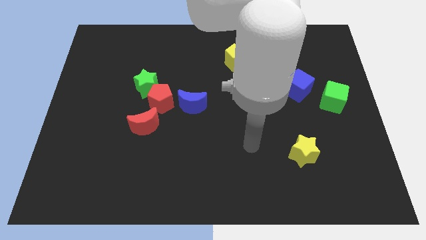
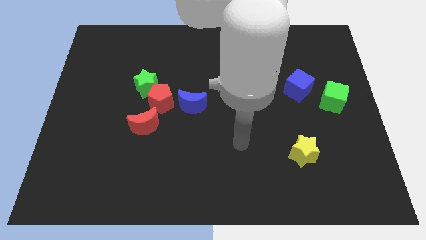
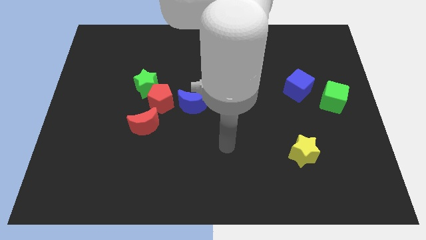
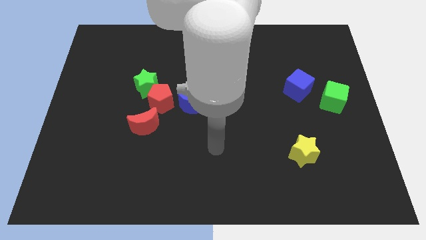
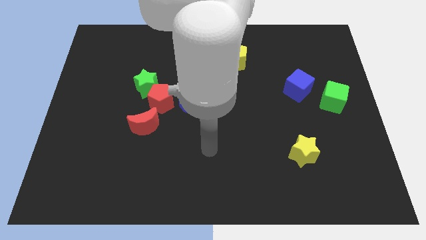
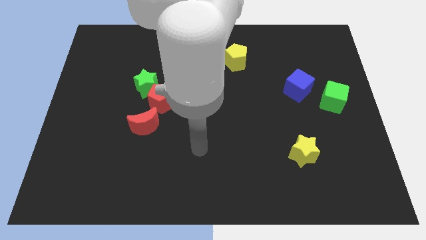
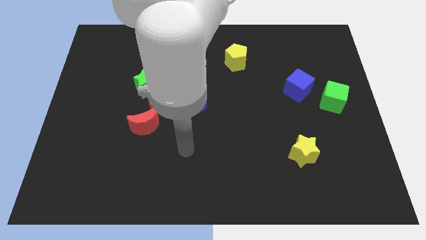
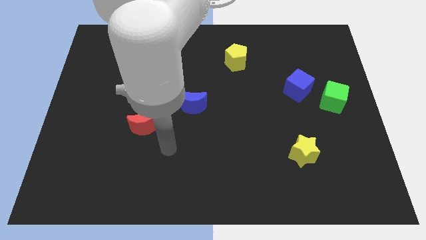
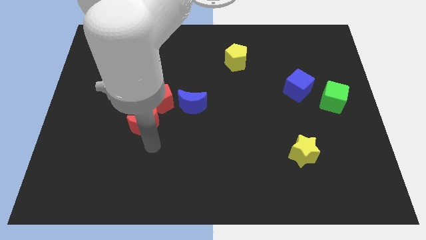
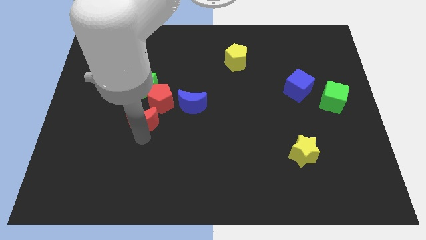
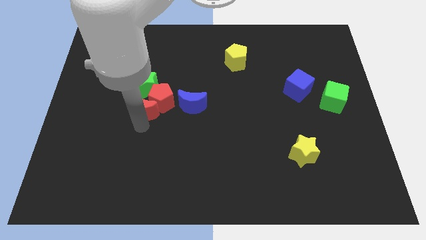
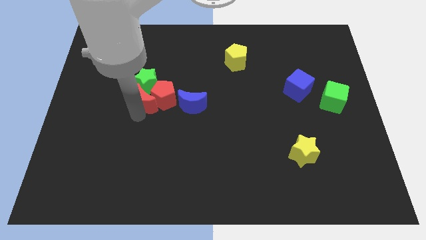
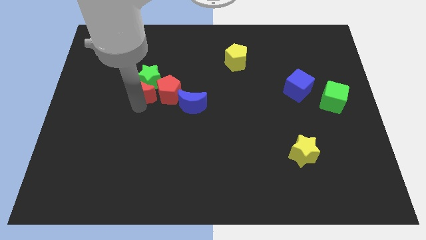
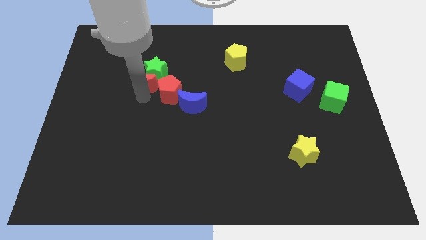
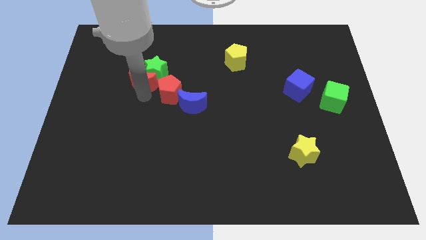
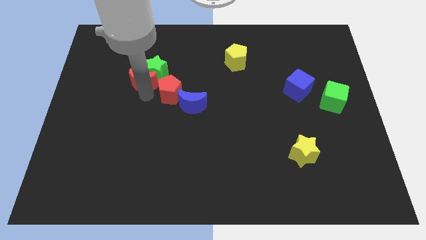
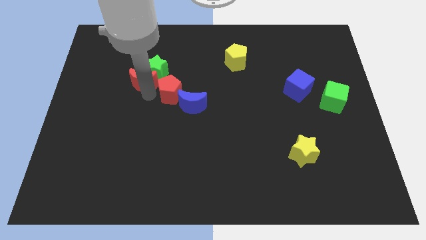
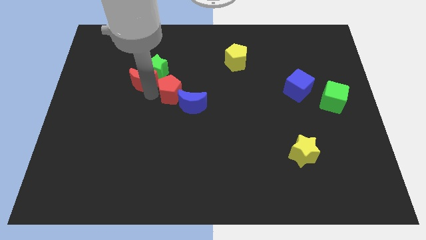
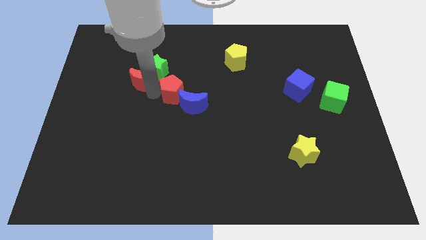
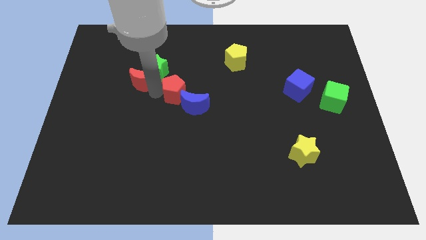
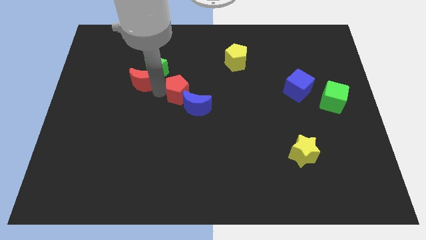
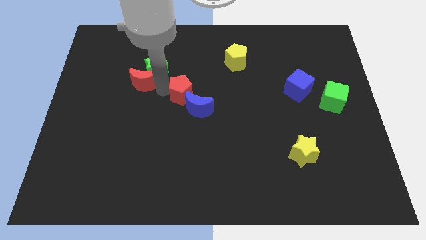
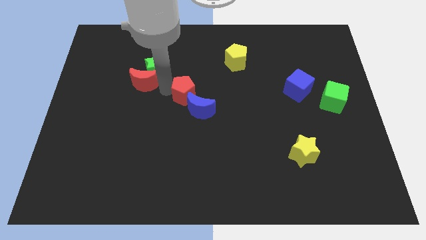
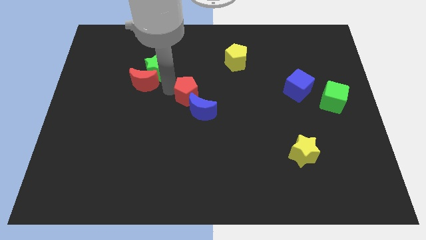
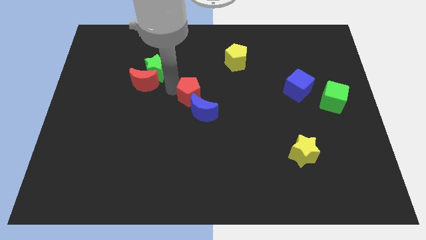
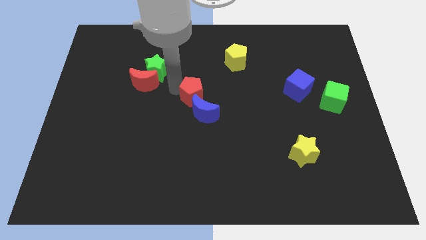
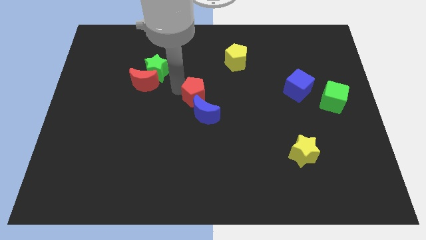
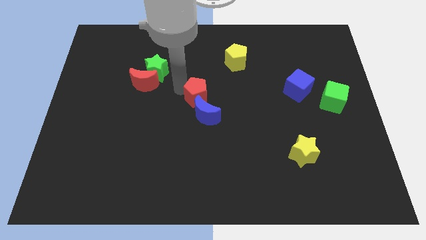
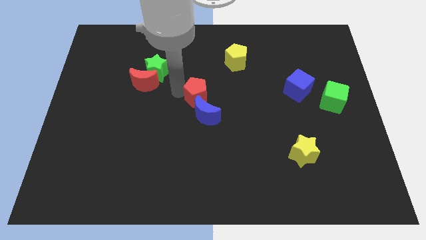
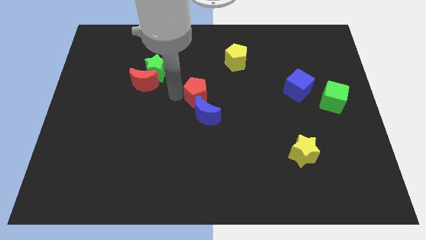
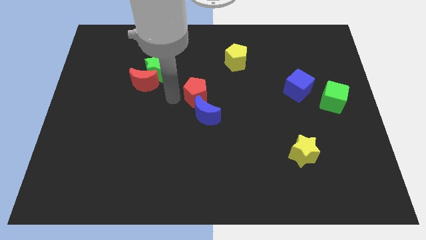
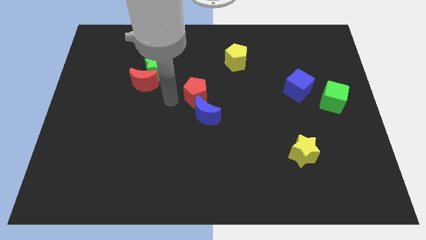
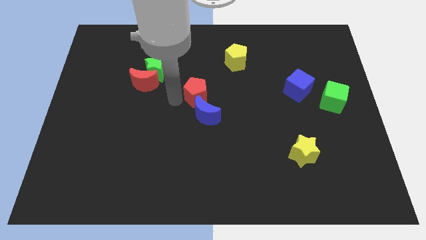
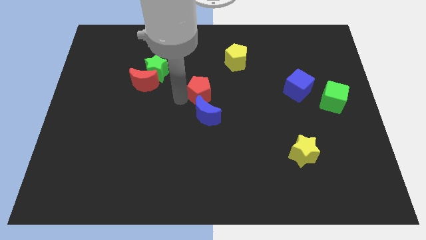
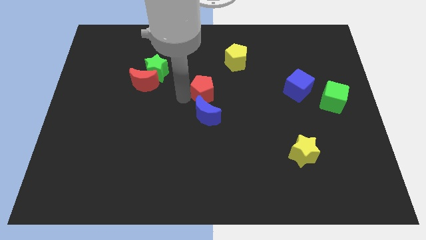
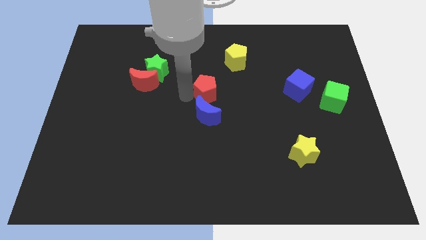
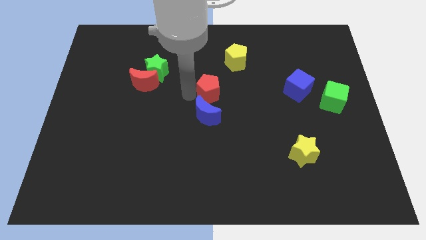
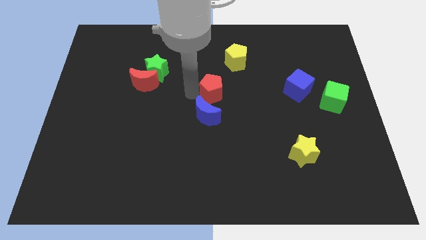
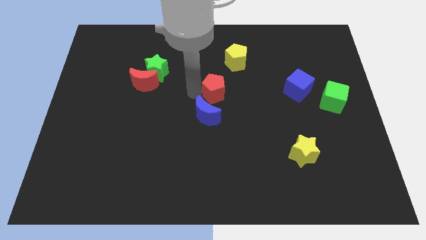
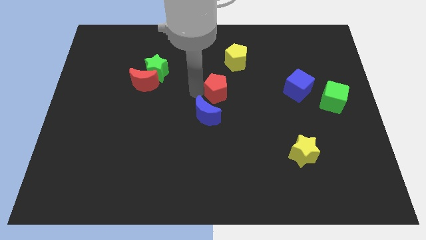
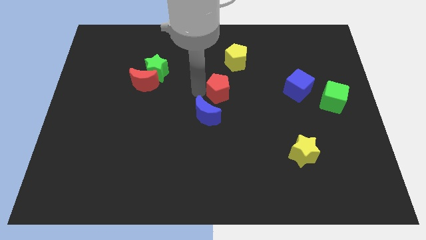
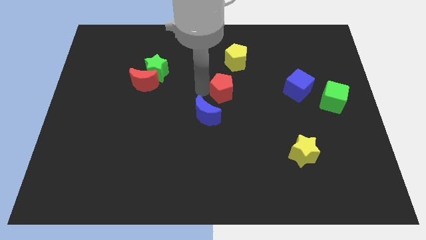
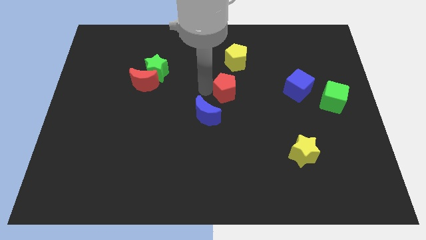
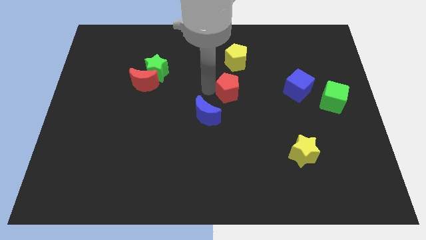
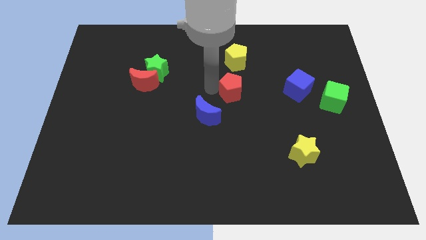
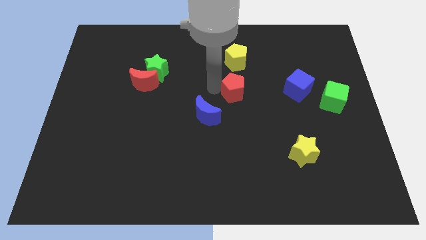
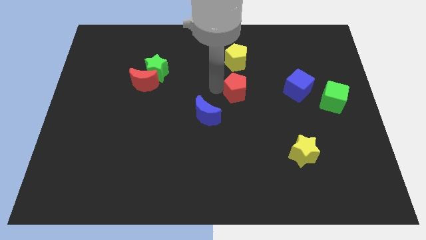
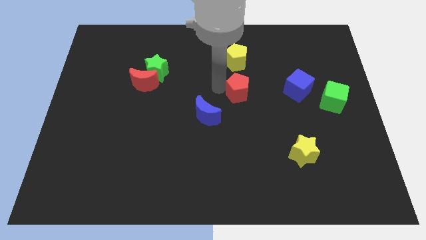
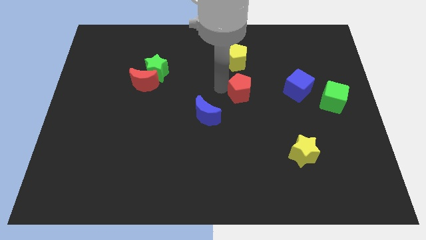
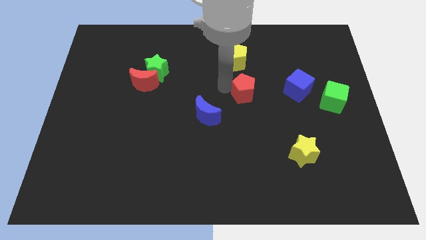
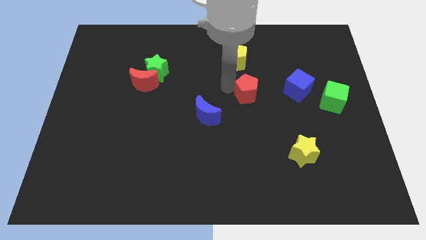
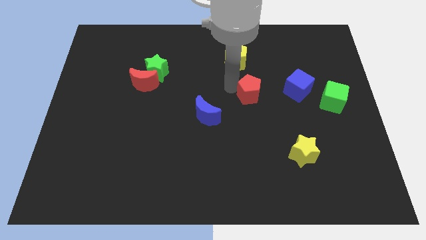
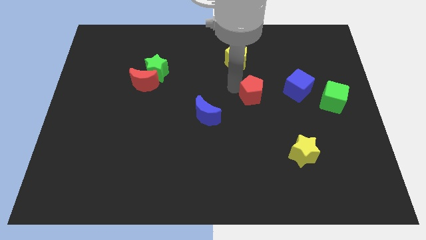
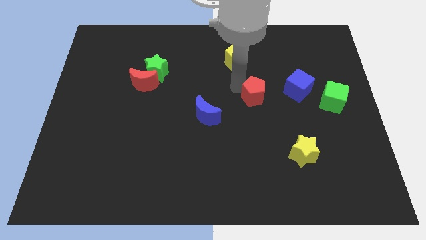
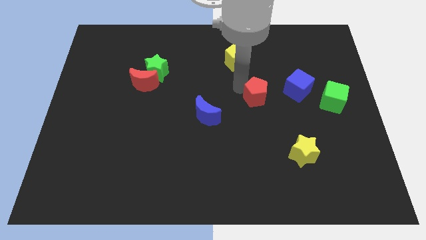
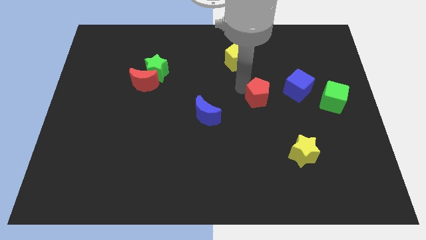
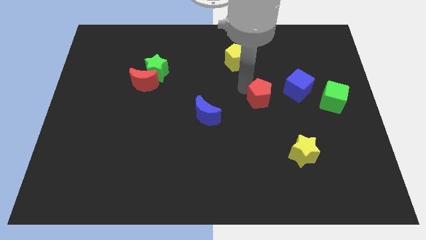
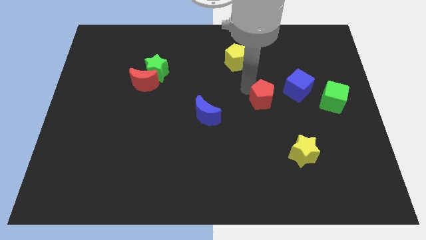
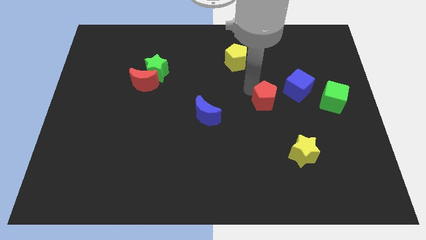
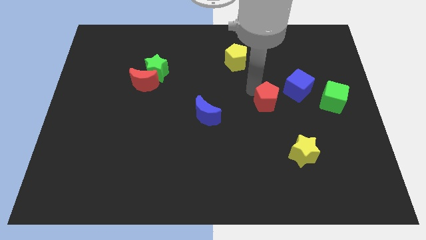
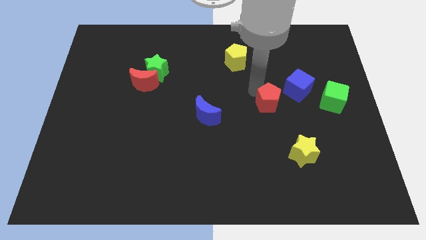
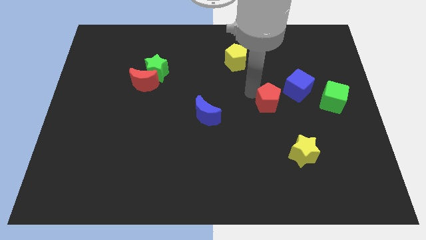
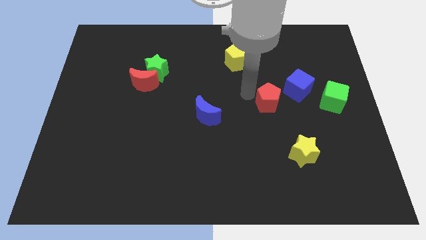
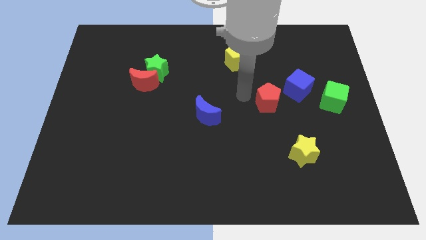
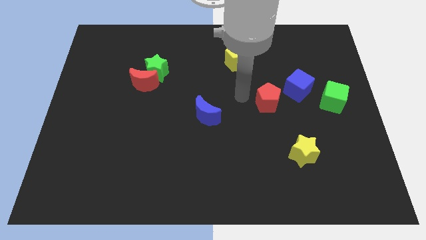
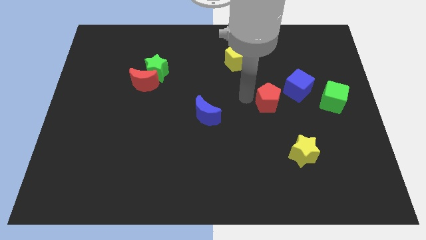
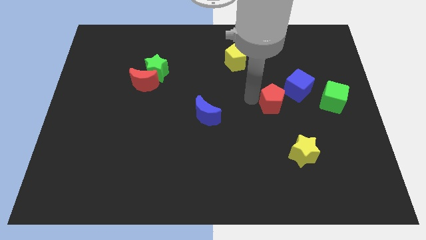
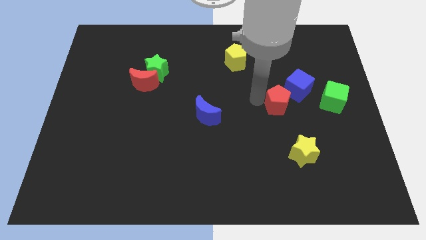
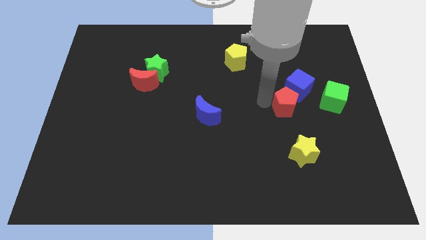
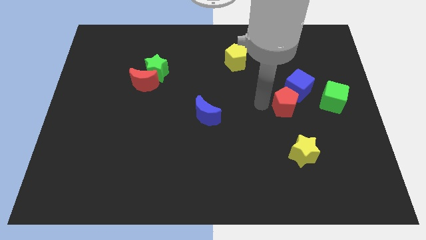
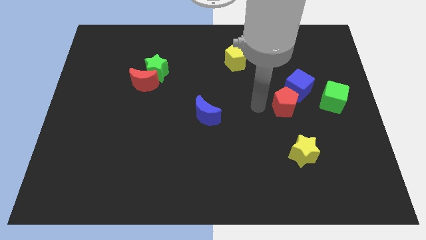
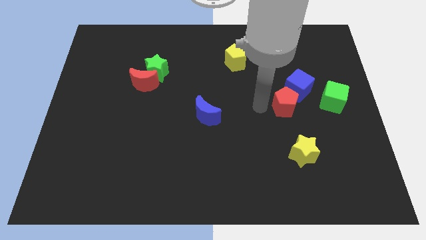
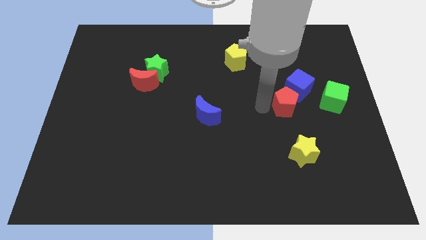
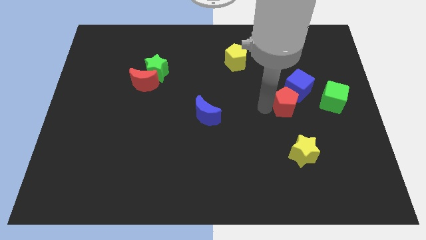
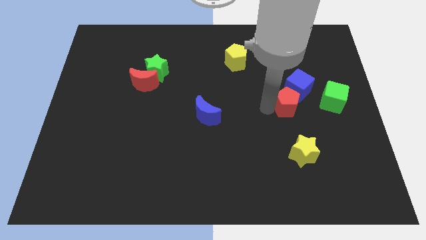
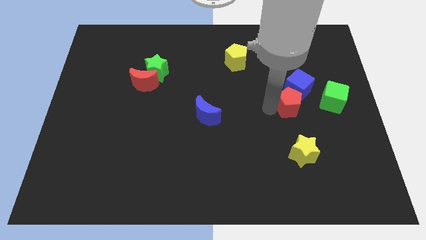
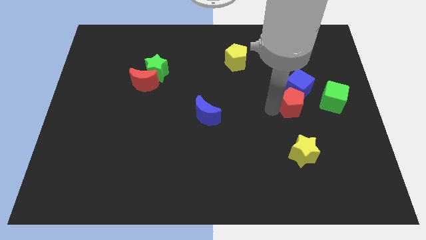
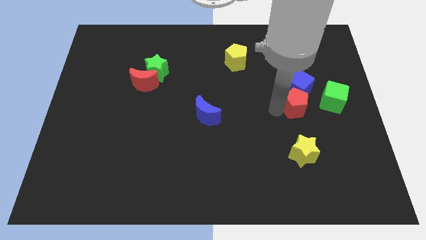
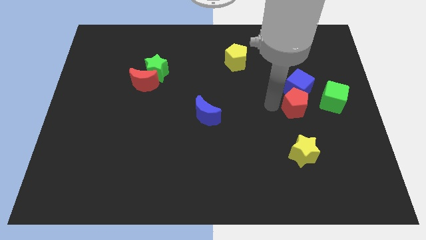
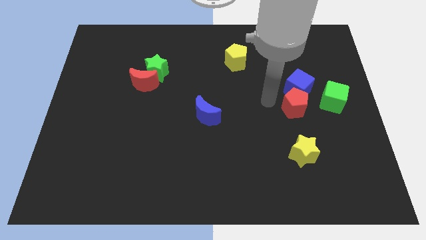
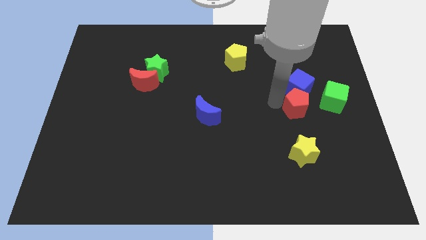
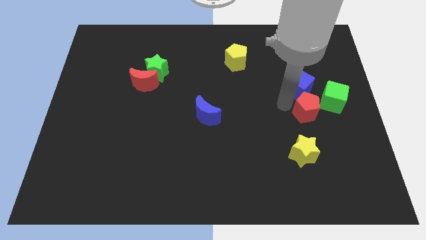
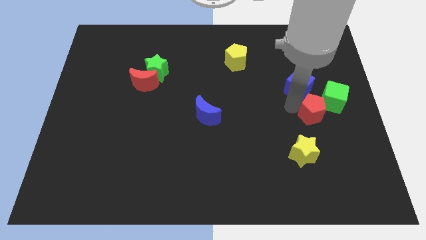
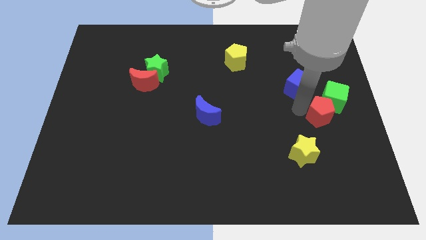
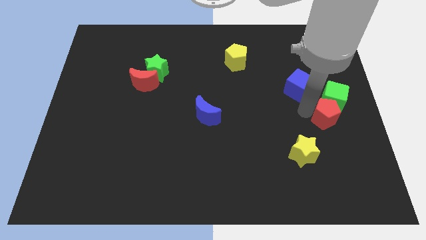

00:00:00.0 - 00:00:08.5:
slide the red pentagon to the right side of the board
